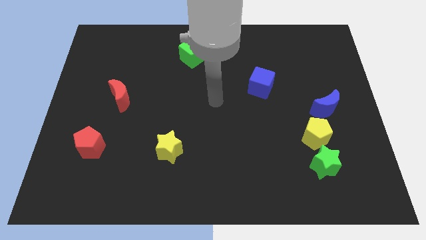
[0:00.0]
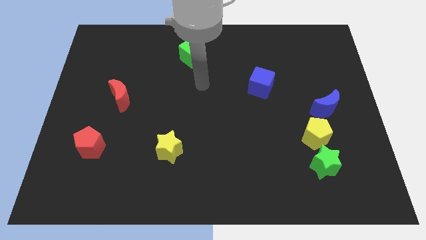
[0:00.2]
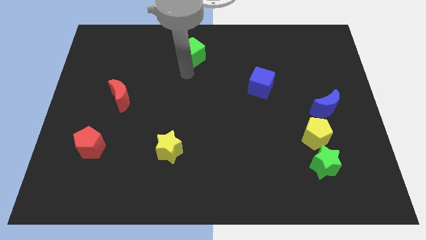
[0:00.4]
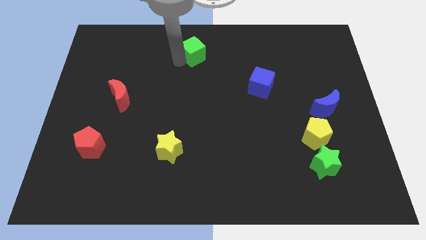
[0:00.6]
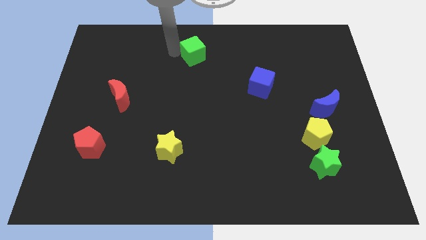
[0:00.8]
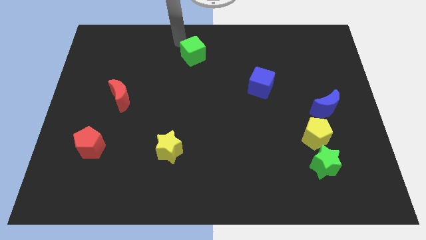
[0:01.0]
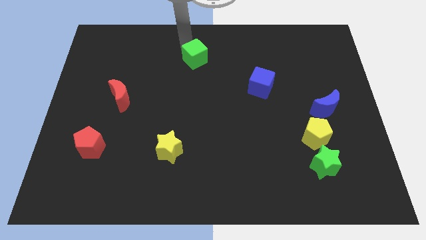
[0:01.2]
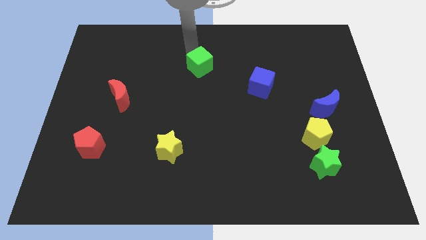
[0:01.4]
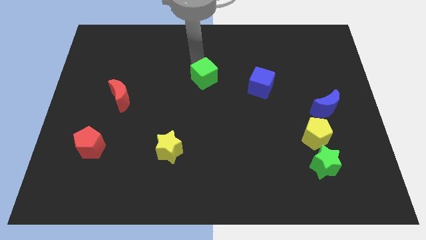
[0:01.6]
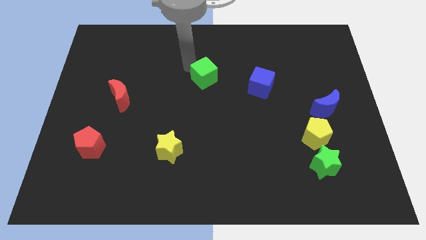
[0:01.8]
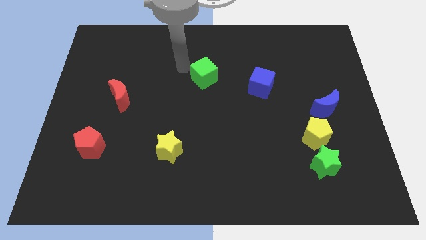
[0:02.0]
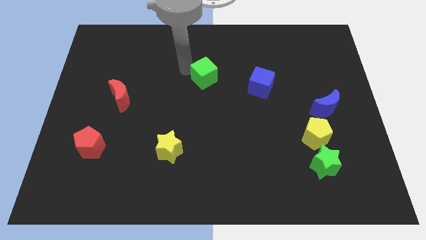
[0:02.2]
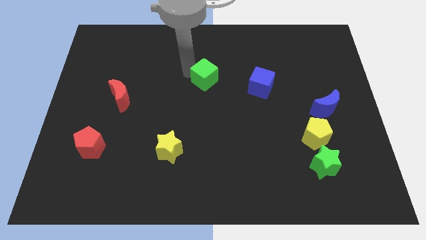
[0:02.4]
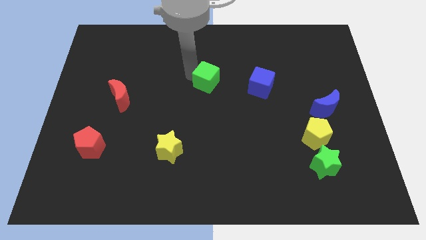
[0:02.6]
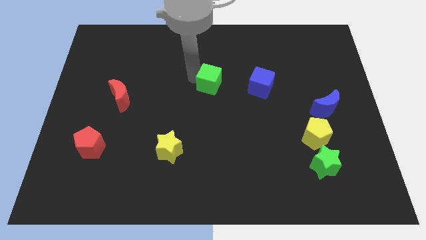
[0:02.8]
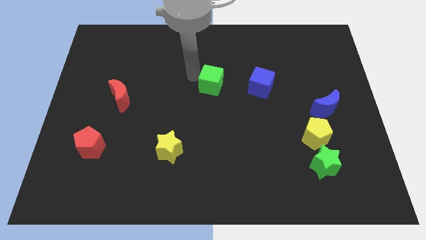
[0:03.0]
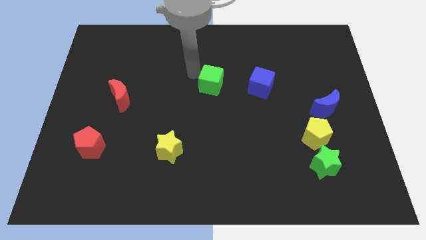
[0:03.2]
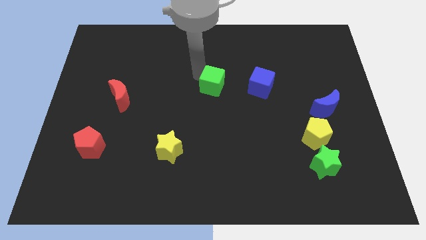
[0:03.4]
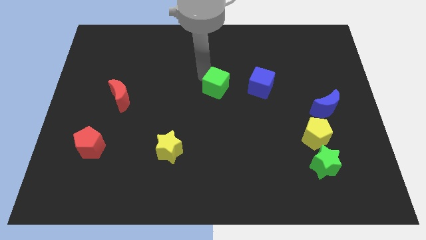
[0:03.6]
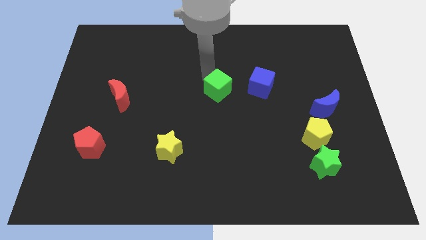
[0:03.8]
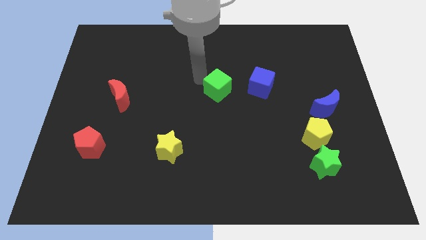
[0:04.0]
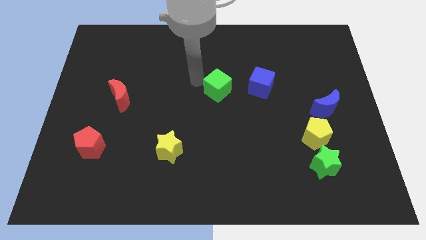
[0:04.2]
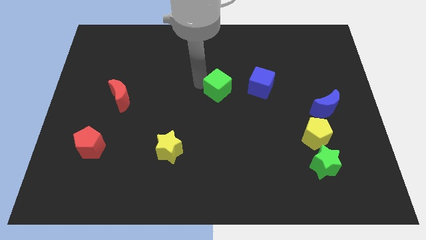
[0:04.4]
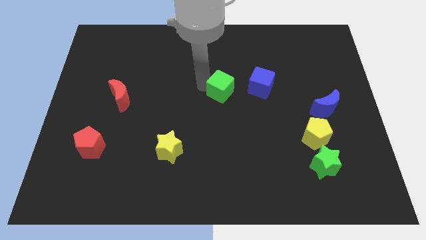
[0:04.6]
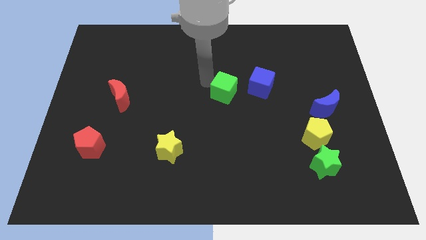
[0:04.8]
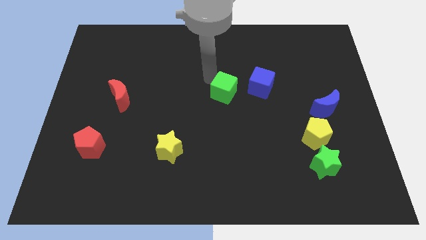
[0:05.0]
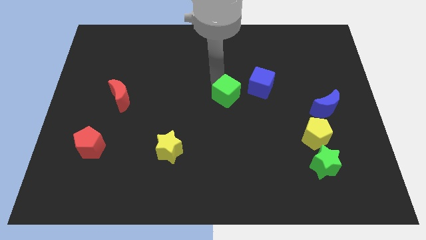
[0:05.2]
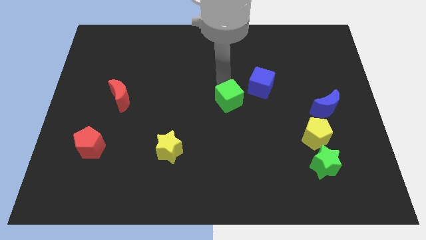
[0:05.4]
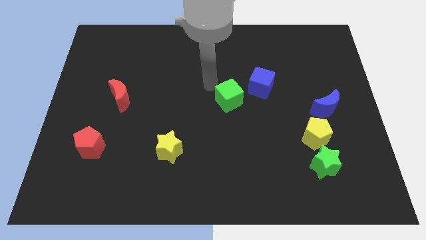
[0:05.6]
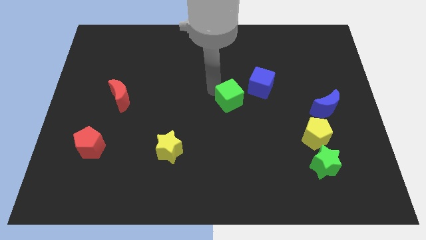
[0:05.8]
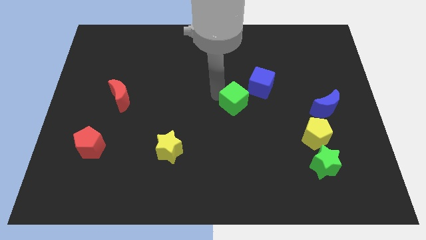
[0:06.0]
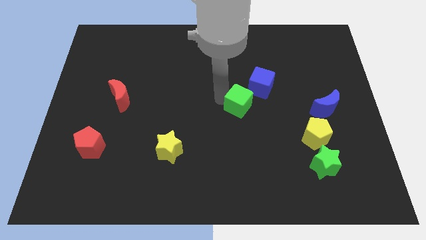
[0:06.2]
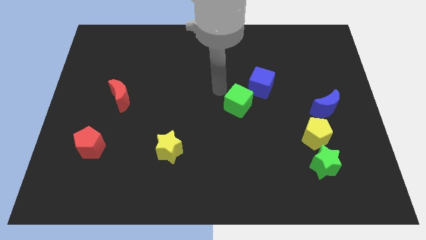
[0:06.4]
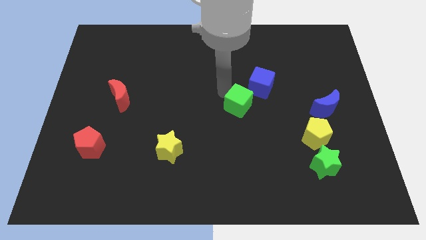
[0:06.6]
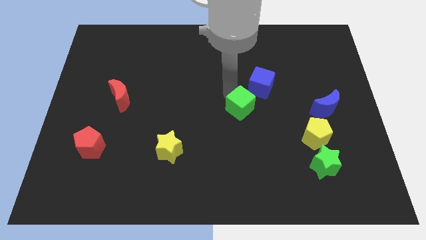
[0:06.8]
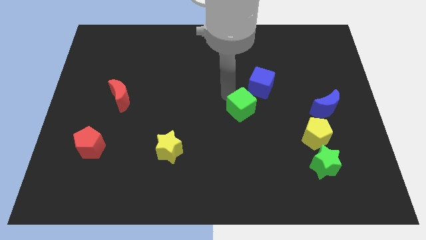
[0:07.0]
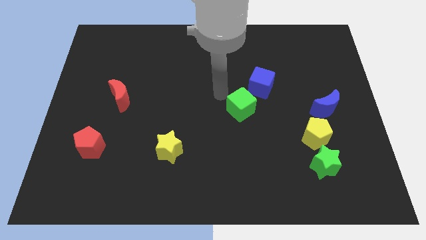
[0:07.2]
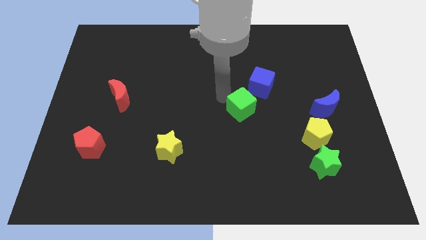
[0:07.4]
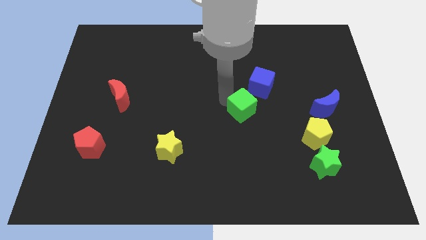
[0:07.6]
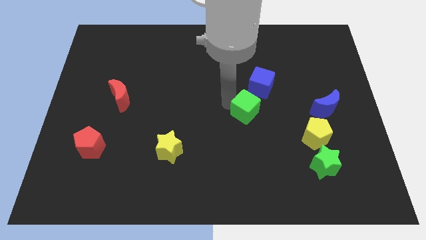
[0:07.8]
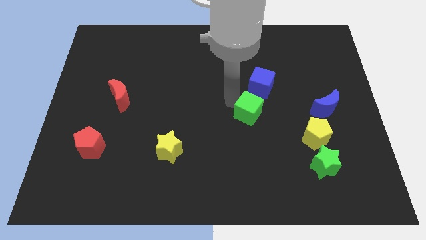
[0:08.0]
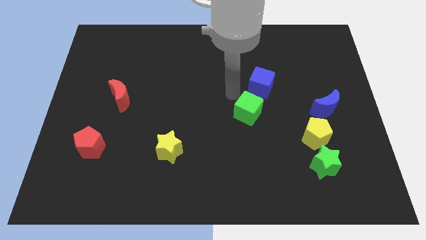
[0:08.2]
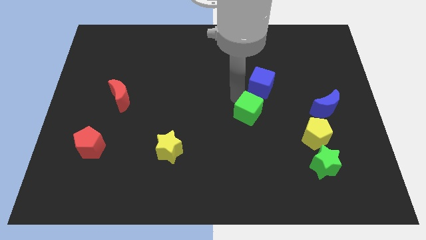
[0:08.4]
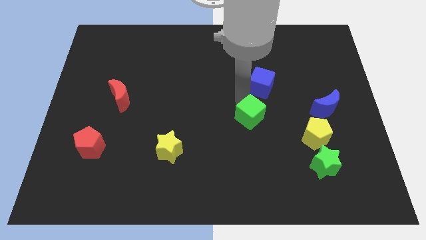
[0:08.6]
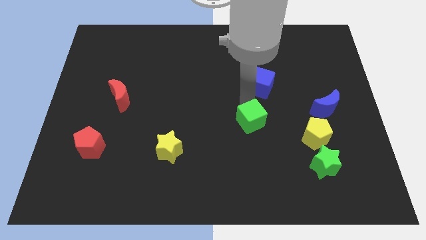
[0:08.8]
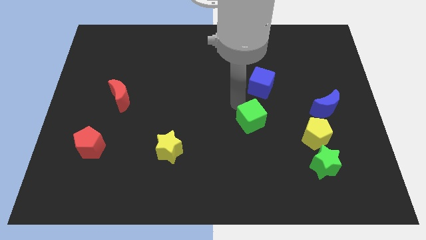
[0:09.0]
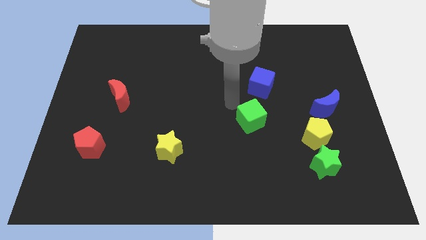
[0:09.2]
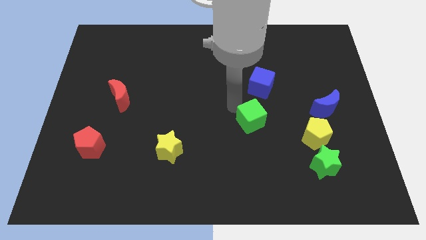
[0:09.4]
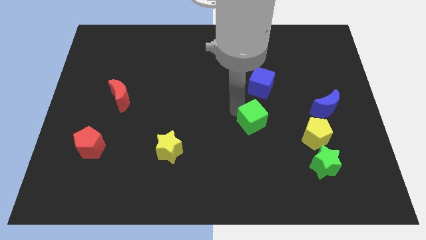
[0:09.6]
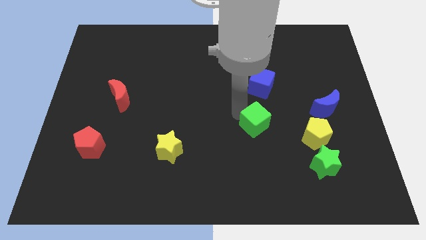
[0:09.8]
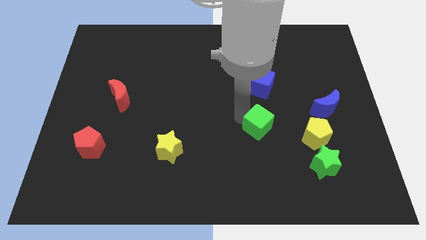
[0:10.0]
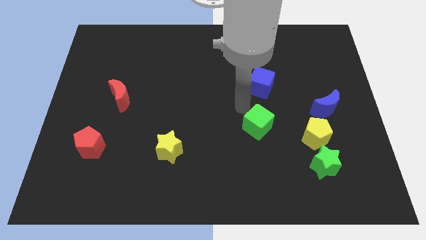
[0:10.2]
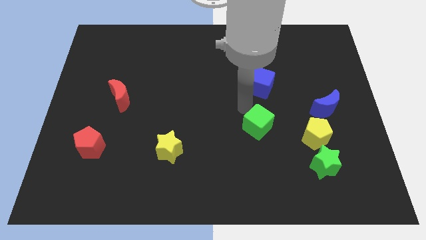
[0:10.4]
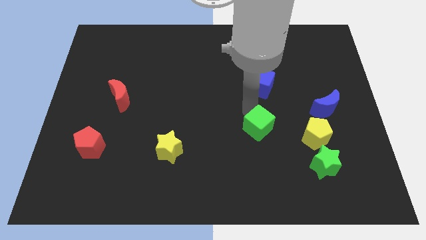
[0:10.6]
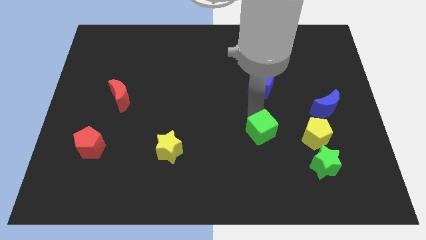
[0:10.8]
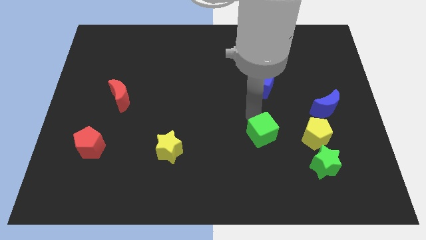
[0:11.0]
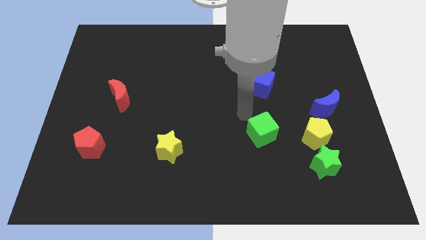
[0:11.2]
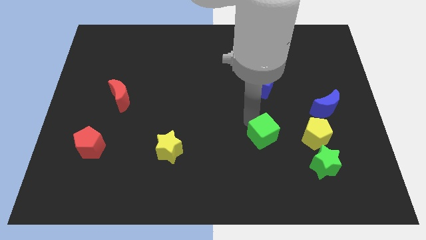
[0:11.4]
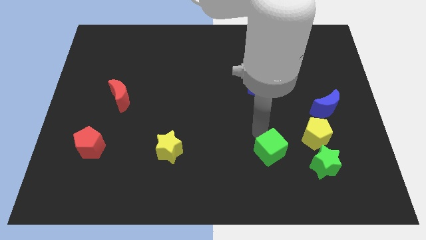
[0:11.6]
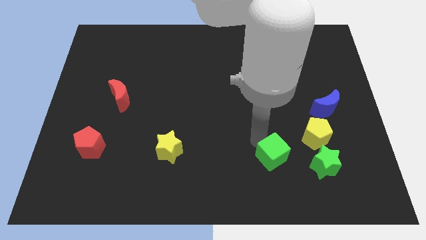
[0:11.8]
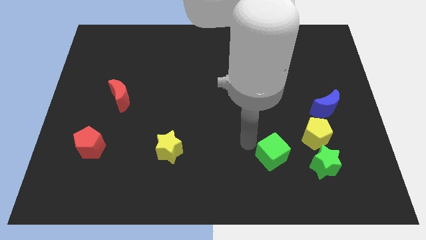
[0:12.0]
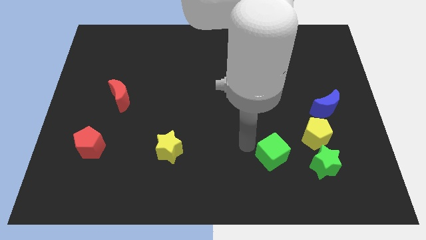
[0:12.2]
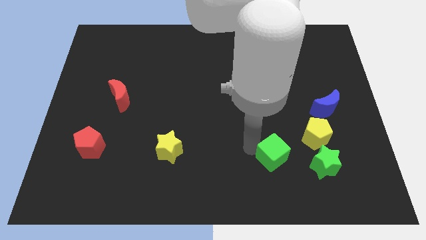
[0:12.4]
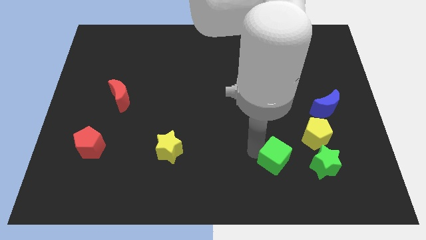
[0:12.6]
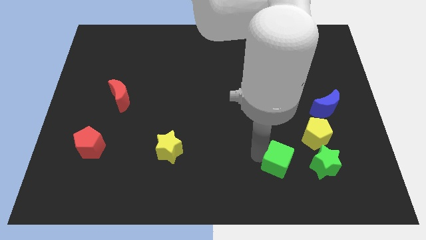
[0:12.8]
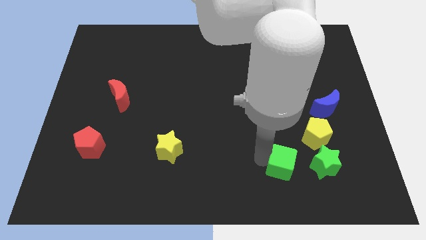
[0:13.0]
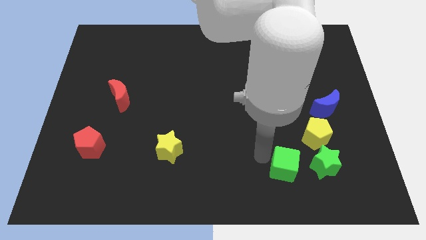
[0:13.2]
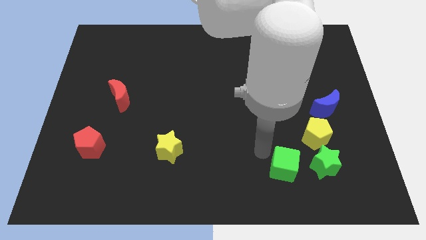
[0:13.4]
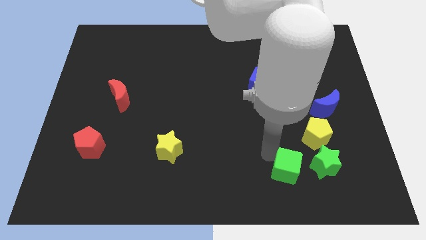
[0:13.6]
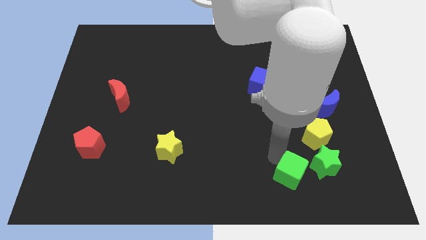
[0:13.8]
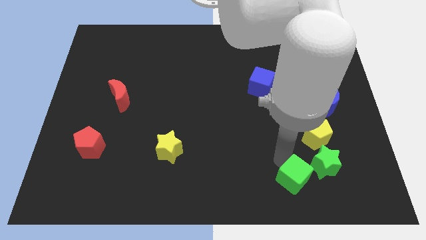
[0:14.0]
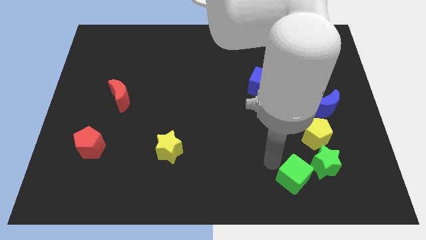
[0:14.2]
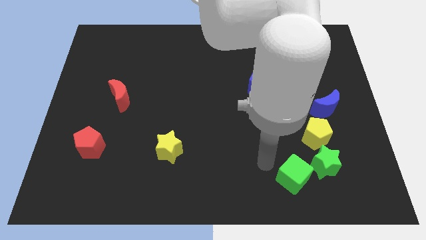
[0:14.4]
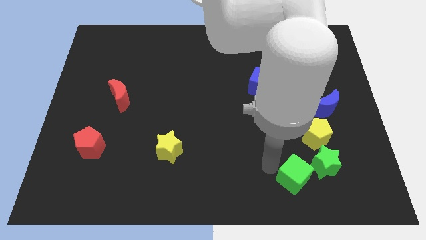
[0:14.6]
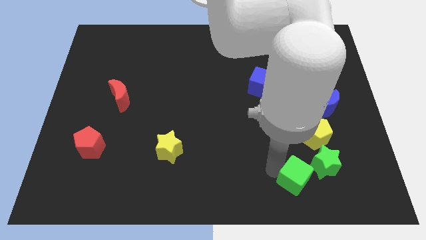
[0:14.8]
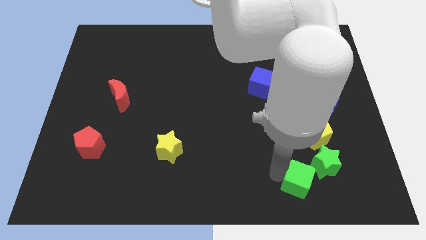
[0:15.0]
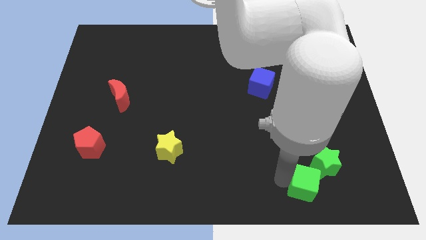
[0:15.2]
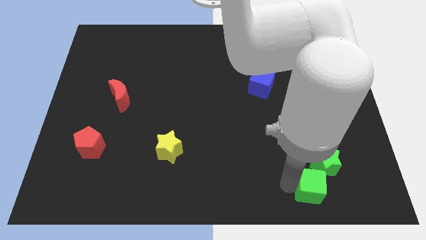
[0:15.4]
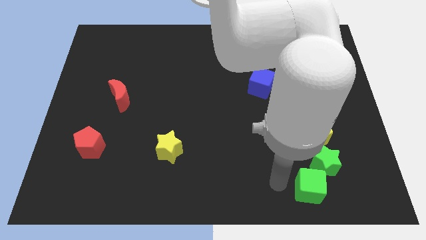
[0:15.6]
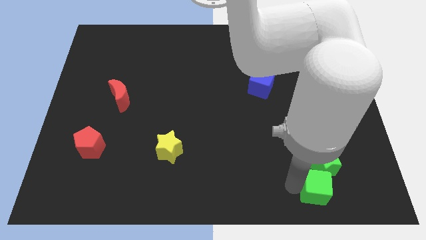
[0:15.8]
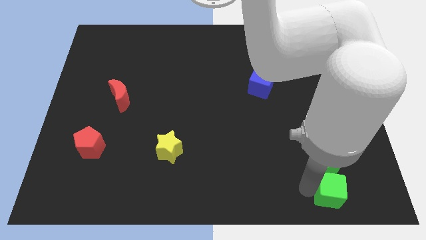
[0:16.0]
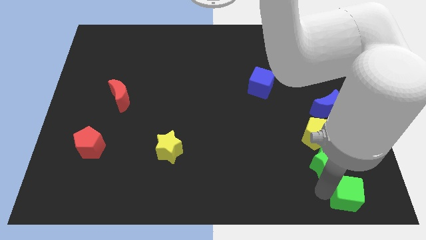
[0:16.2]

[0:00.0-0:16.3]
push the green cube to the bottom right corner
